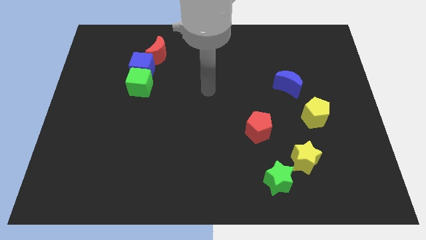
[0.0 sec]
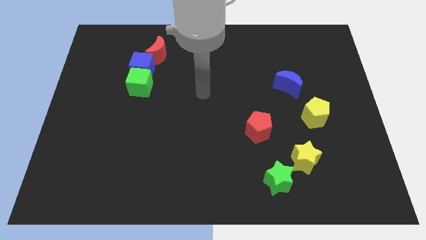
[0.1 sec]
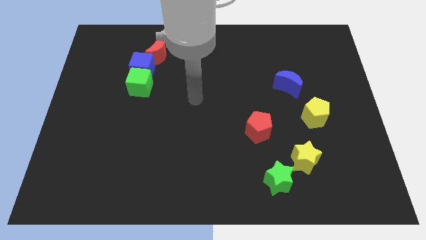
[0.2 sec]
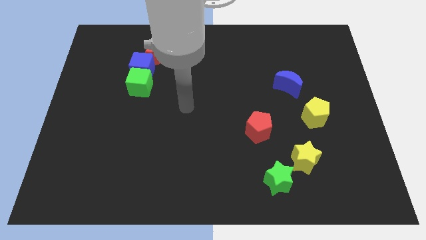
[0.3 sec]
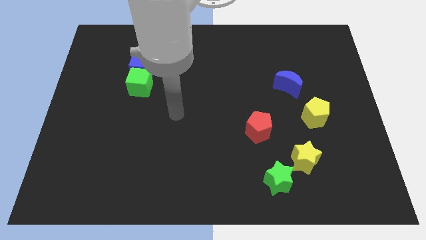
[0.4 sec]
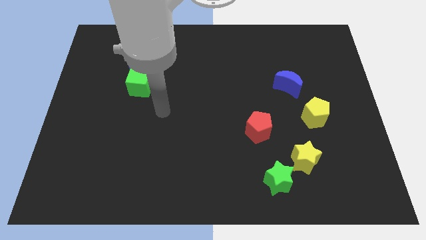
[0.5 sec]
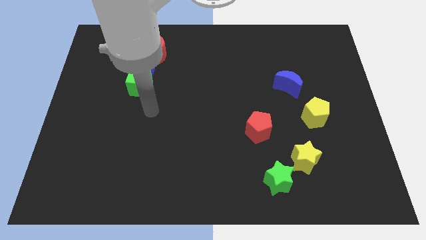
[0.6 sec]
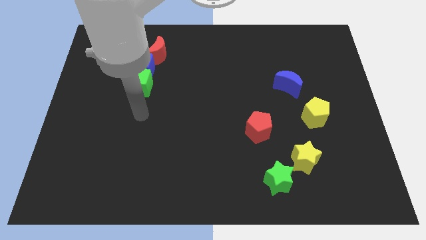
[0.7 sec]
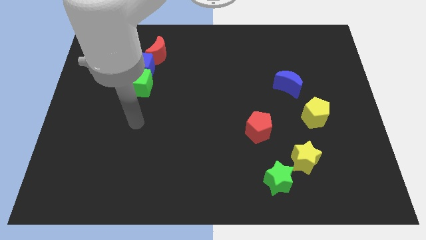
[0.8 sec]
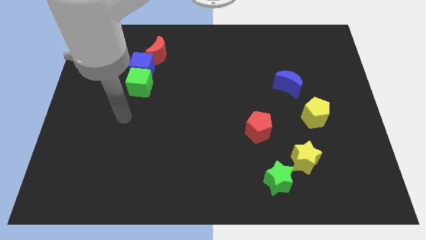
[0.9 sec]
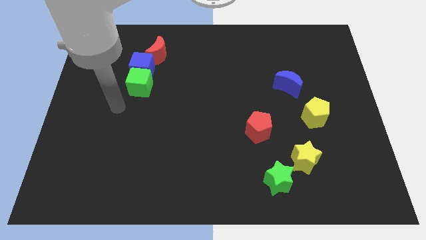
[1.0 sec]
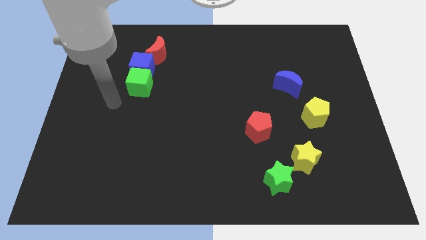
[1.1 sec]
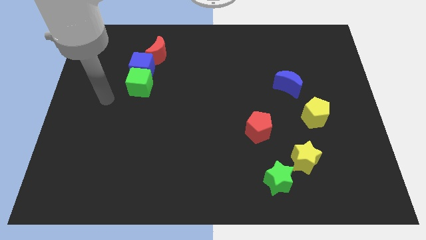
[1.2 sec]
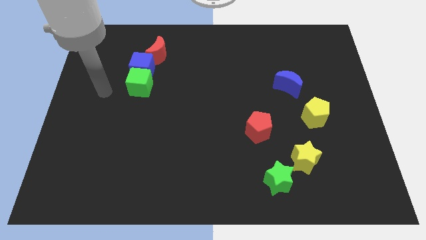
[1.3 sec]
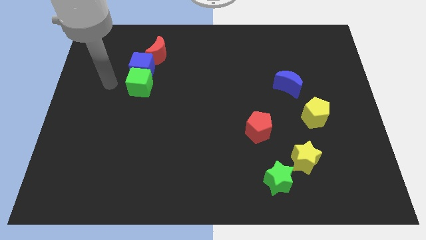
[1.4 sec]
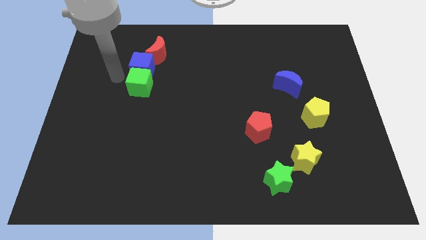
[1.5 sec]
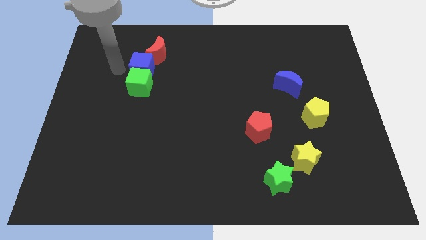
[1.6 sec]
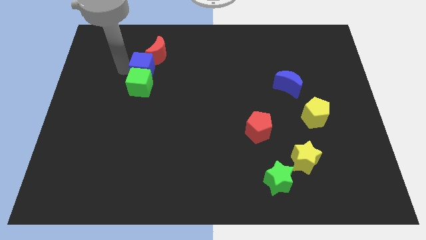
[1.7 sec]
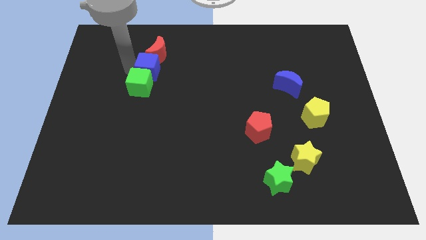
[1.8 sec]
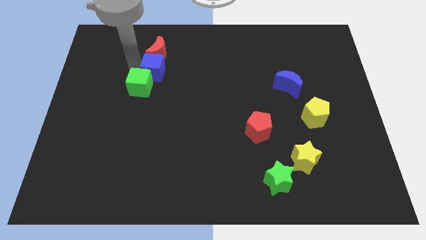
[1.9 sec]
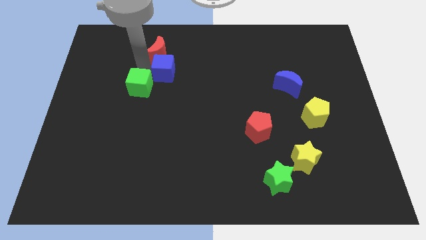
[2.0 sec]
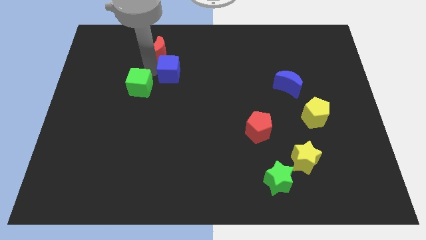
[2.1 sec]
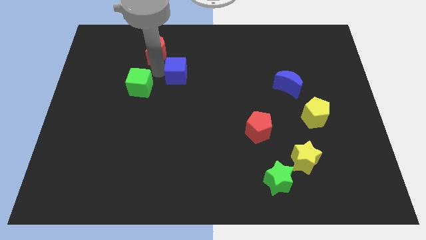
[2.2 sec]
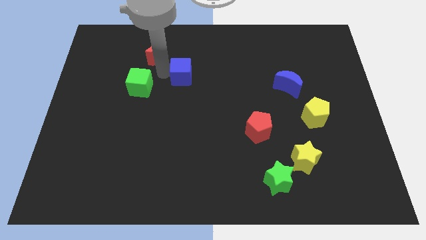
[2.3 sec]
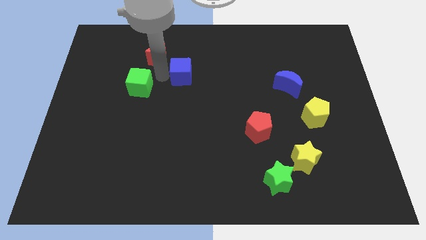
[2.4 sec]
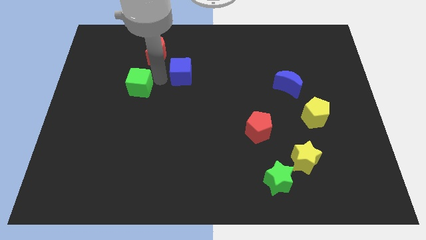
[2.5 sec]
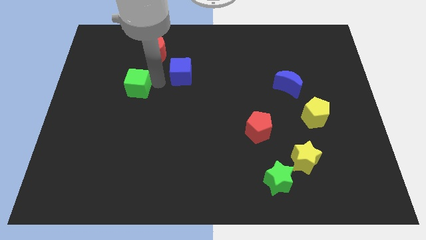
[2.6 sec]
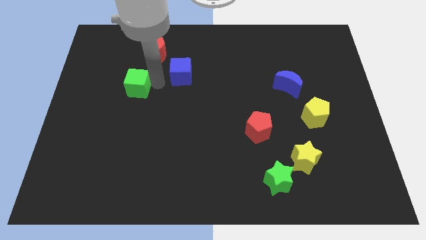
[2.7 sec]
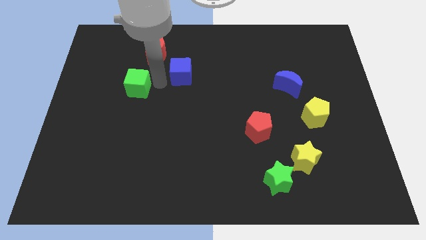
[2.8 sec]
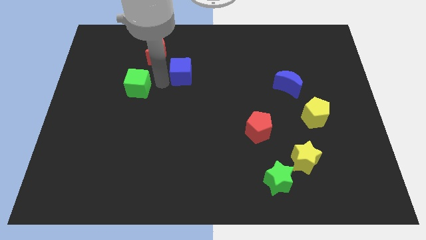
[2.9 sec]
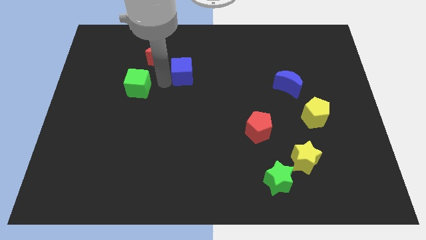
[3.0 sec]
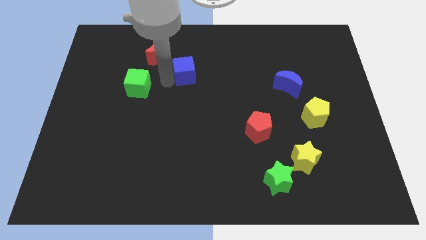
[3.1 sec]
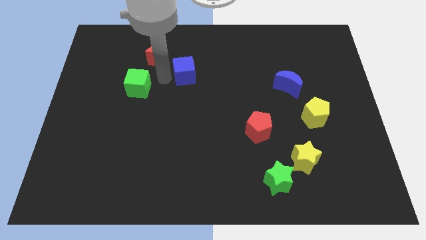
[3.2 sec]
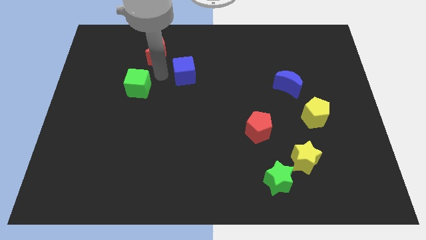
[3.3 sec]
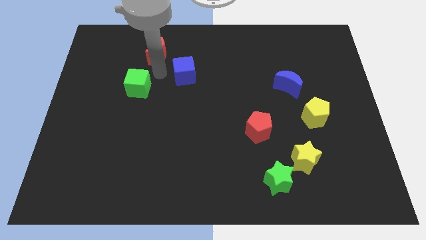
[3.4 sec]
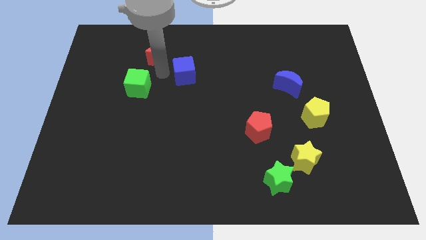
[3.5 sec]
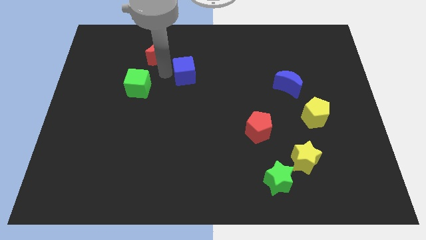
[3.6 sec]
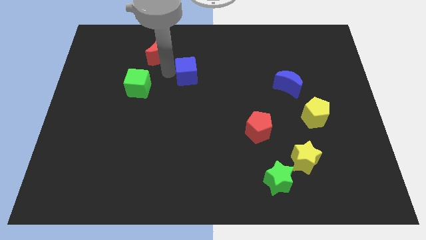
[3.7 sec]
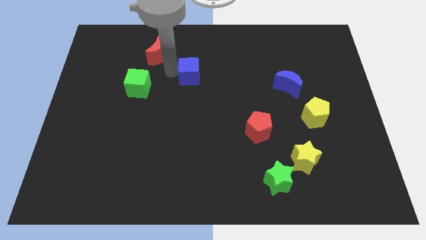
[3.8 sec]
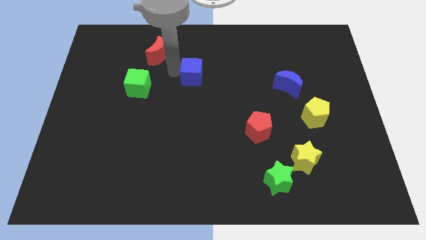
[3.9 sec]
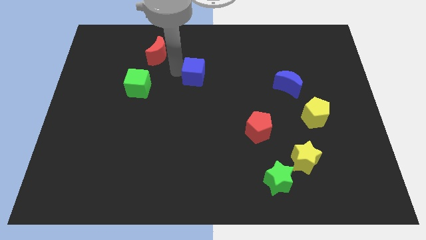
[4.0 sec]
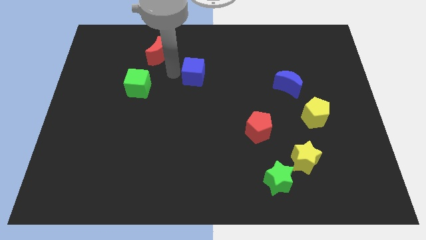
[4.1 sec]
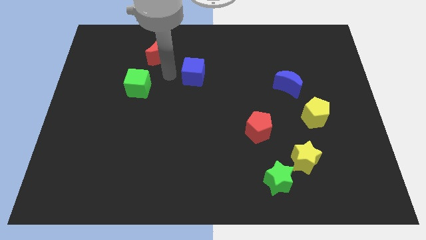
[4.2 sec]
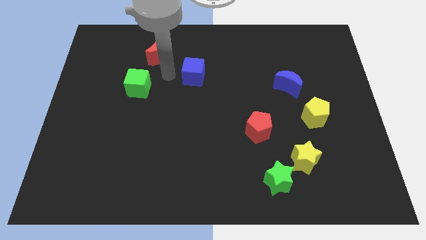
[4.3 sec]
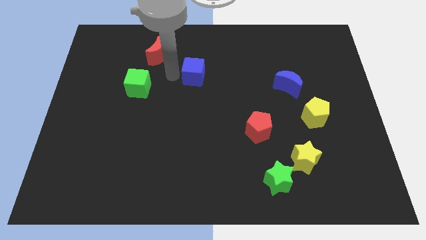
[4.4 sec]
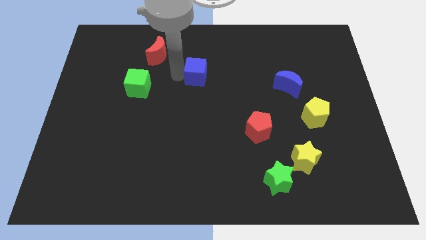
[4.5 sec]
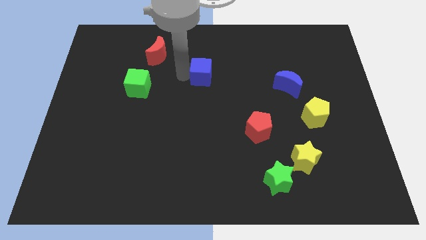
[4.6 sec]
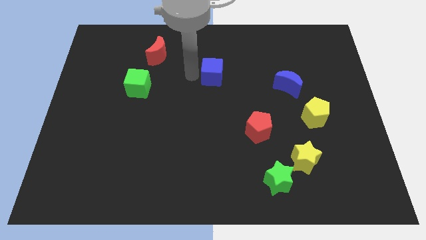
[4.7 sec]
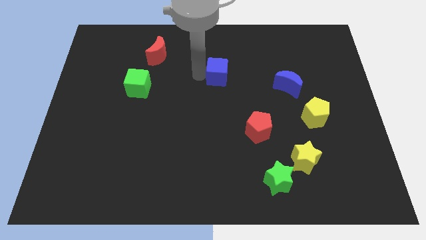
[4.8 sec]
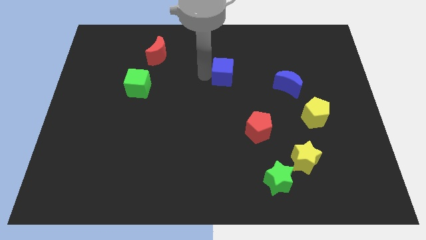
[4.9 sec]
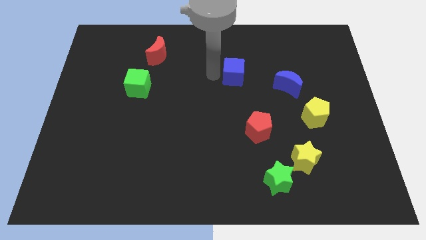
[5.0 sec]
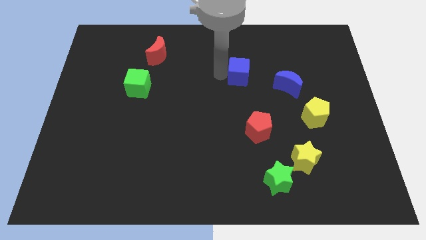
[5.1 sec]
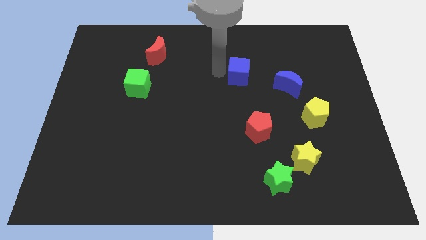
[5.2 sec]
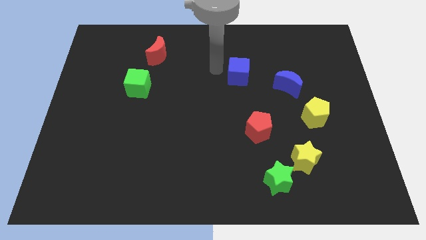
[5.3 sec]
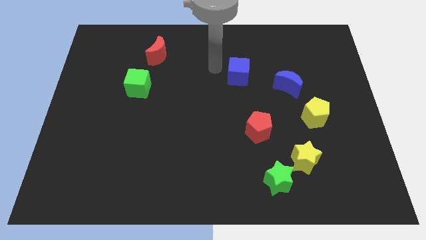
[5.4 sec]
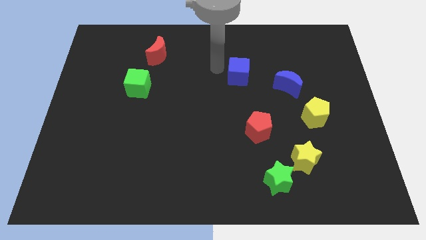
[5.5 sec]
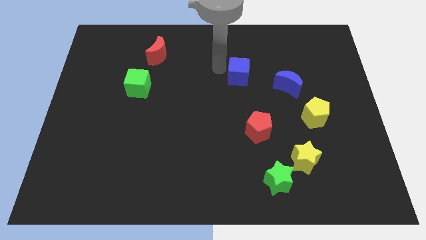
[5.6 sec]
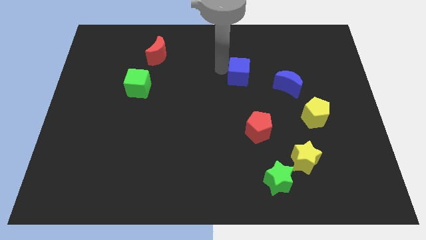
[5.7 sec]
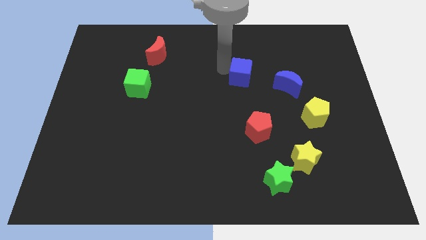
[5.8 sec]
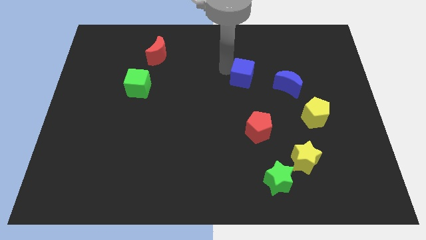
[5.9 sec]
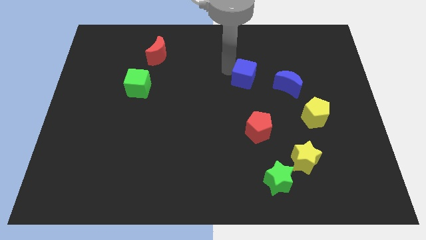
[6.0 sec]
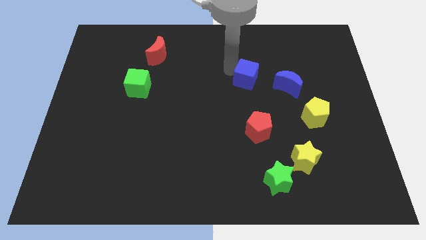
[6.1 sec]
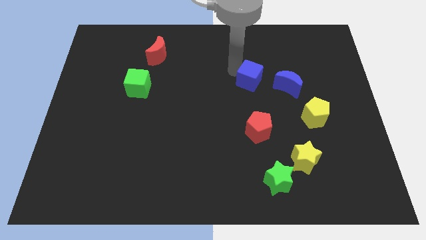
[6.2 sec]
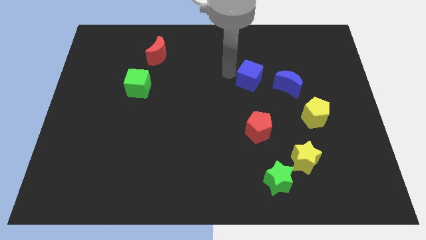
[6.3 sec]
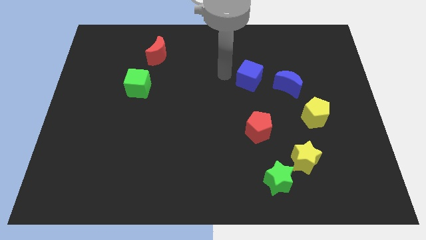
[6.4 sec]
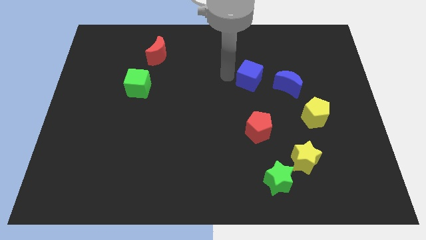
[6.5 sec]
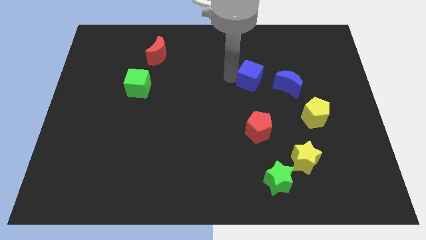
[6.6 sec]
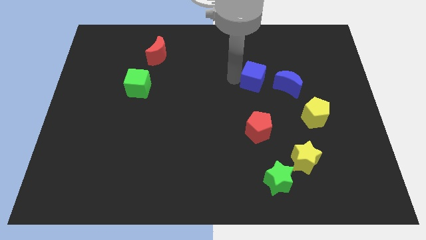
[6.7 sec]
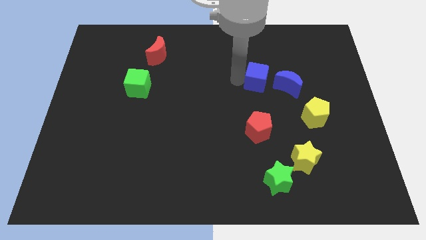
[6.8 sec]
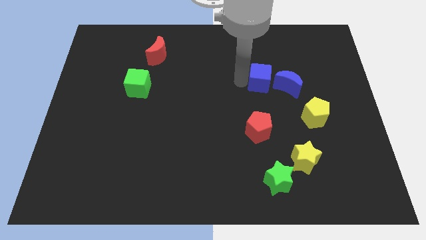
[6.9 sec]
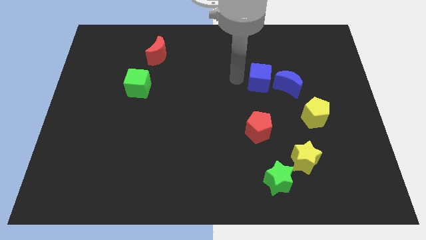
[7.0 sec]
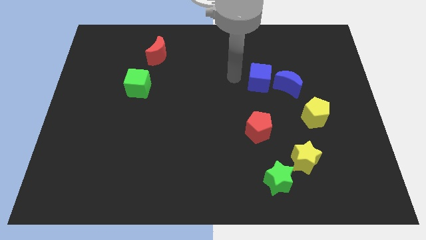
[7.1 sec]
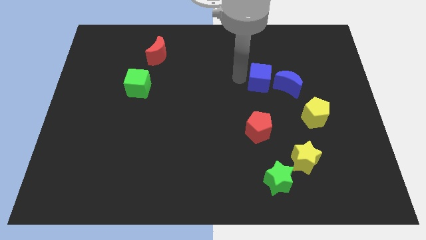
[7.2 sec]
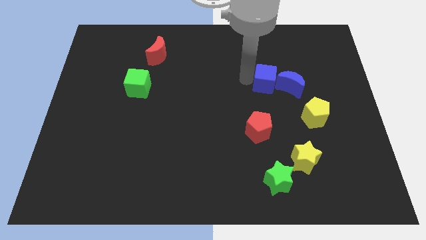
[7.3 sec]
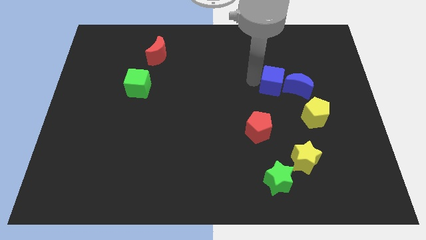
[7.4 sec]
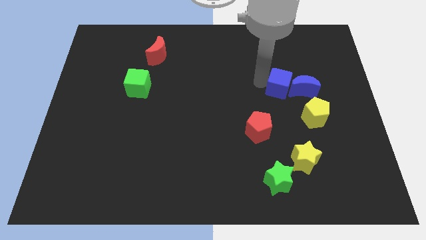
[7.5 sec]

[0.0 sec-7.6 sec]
slide the blue cube next to the blue moon
